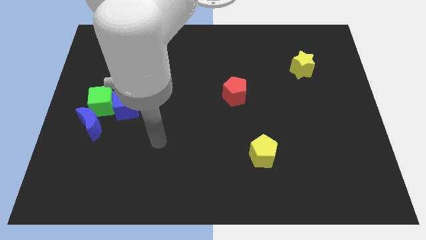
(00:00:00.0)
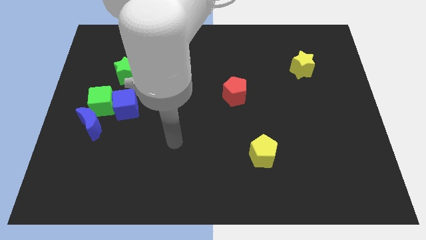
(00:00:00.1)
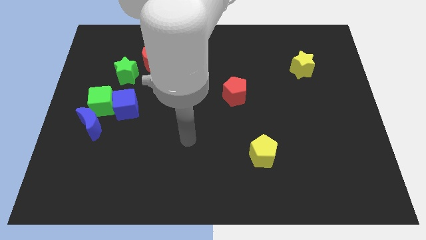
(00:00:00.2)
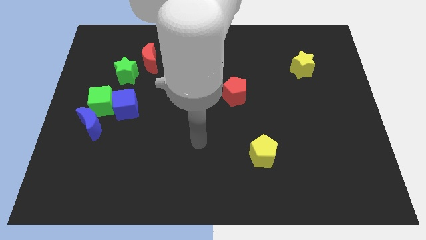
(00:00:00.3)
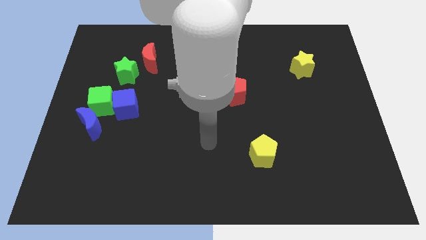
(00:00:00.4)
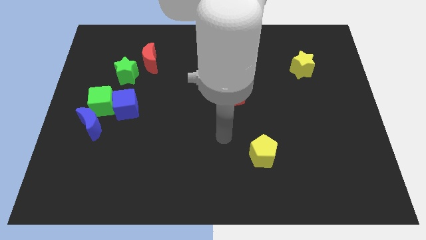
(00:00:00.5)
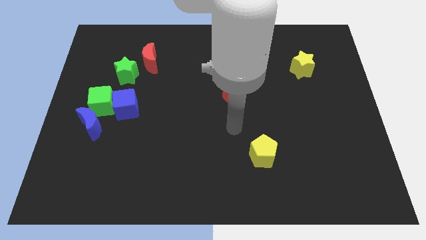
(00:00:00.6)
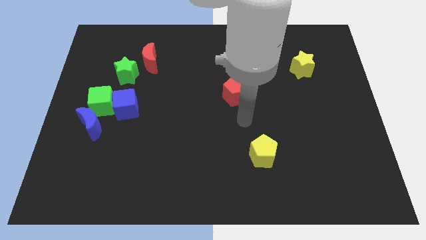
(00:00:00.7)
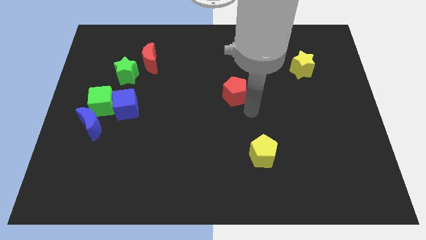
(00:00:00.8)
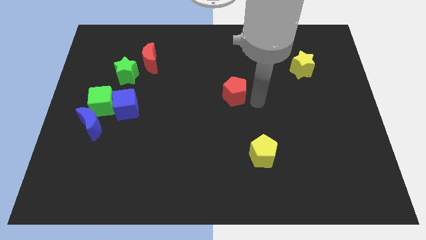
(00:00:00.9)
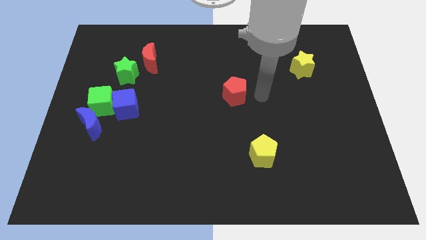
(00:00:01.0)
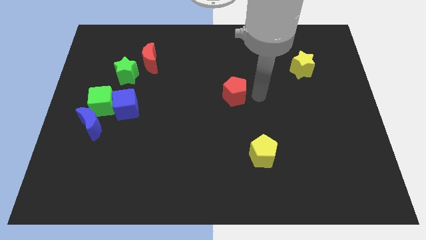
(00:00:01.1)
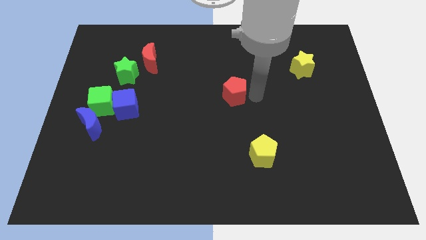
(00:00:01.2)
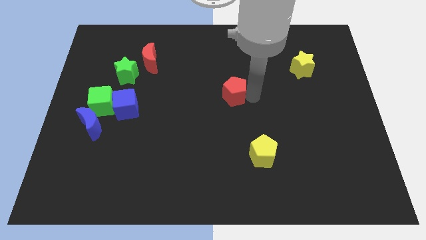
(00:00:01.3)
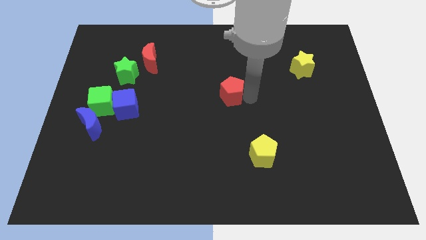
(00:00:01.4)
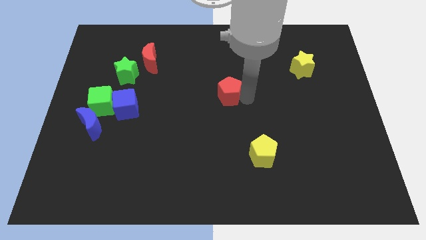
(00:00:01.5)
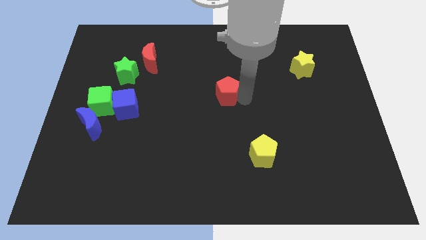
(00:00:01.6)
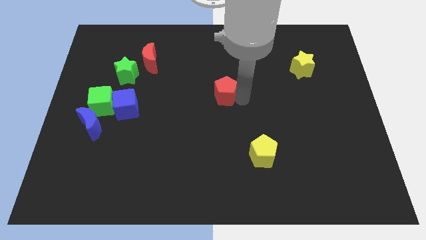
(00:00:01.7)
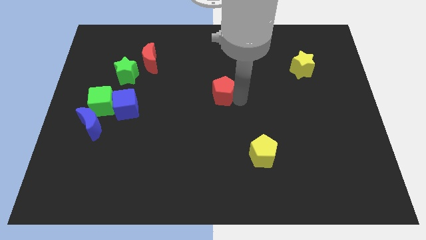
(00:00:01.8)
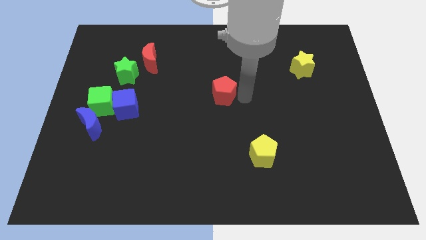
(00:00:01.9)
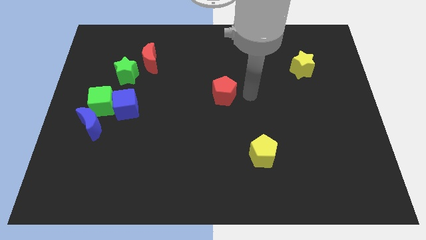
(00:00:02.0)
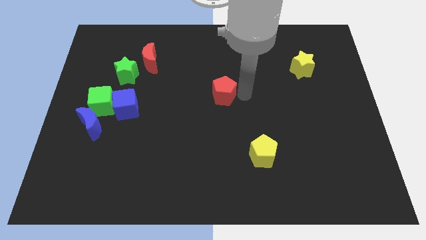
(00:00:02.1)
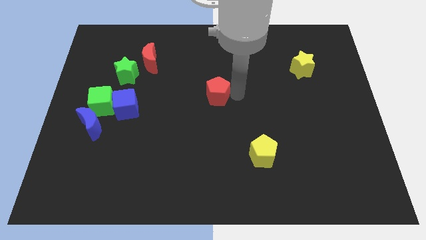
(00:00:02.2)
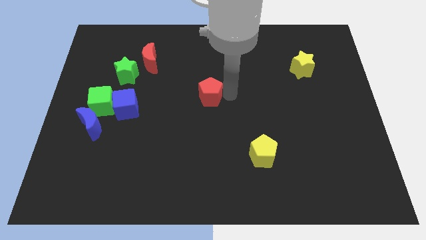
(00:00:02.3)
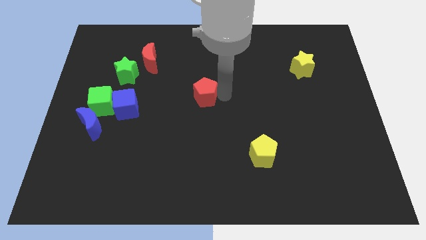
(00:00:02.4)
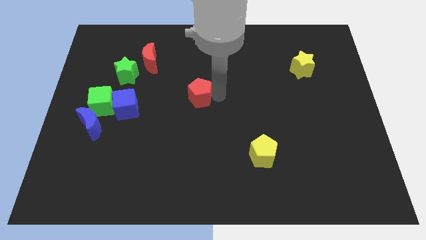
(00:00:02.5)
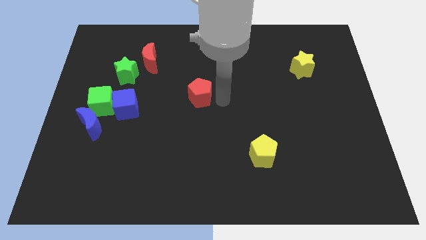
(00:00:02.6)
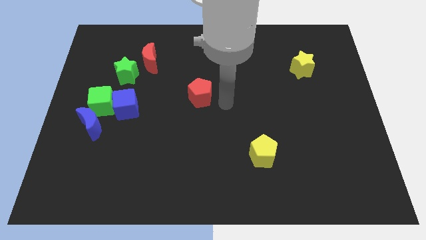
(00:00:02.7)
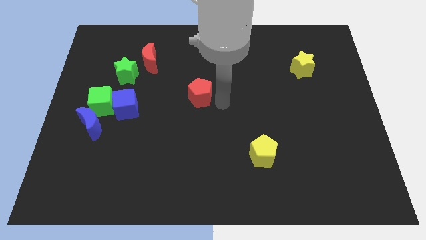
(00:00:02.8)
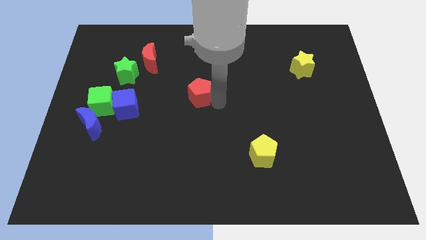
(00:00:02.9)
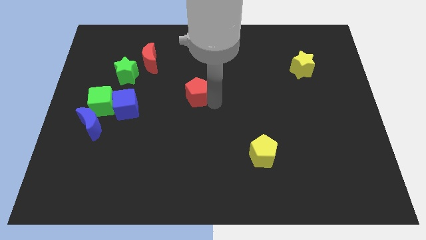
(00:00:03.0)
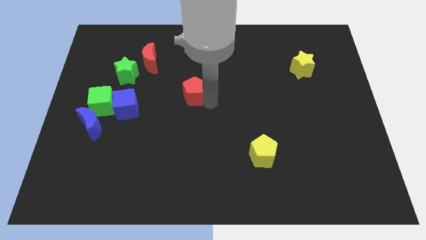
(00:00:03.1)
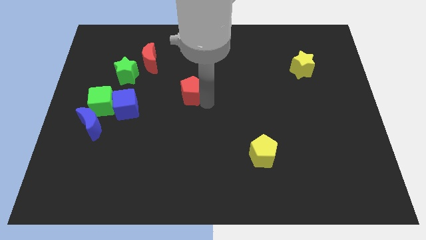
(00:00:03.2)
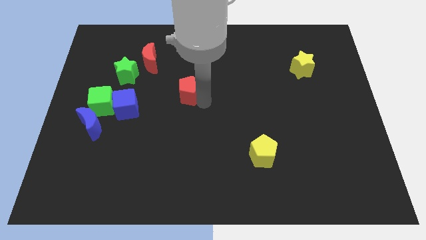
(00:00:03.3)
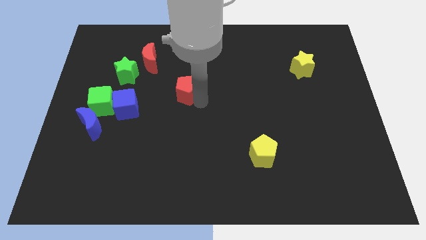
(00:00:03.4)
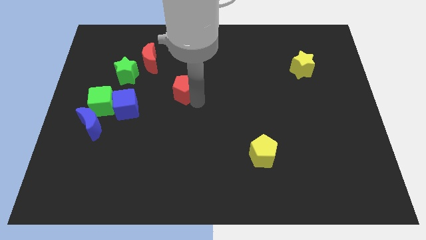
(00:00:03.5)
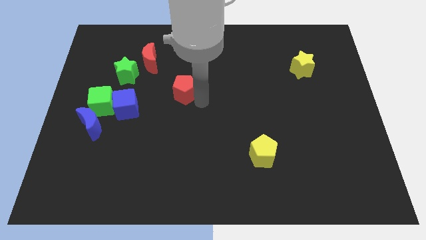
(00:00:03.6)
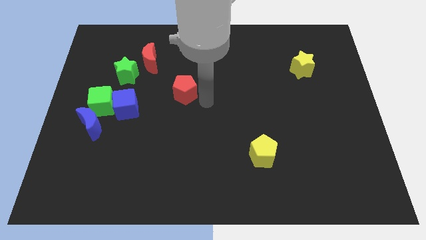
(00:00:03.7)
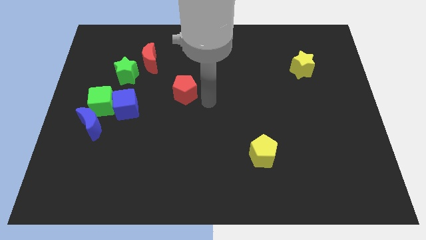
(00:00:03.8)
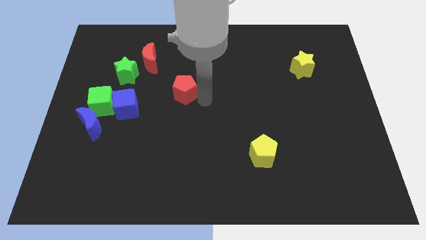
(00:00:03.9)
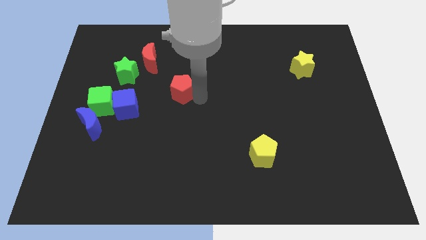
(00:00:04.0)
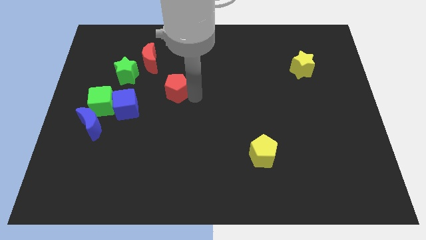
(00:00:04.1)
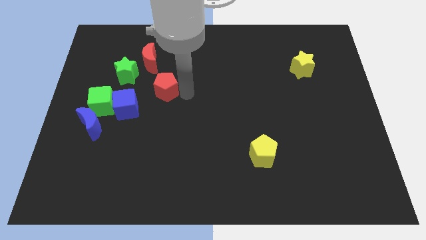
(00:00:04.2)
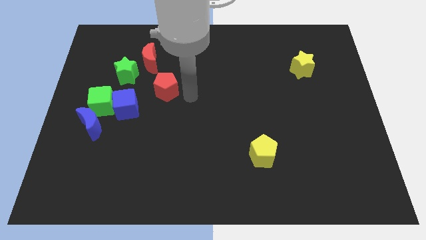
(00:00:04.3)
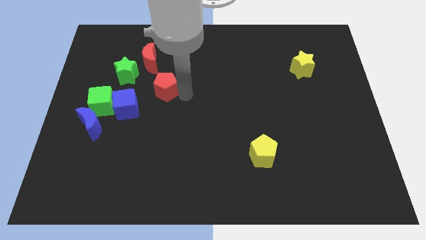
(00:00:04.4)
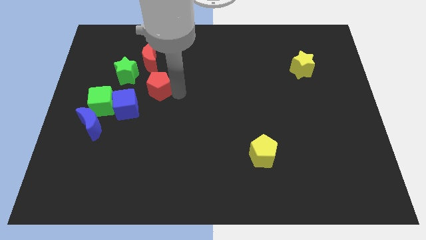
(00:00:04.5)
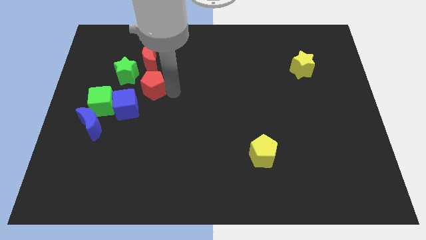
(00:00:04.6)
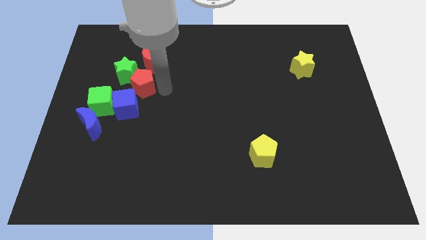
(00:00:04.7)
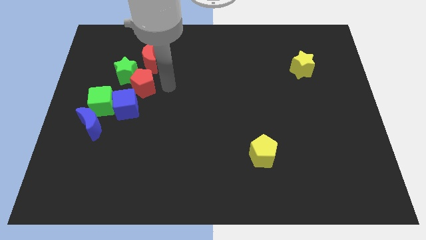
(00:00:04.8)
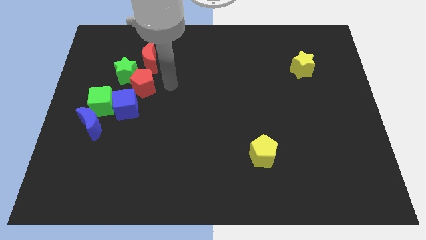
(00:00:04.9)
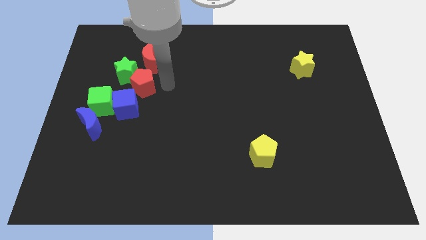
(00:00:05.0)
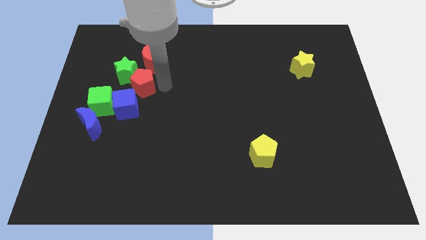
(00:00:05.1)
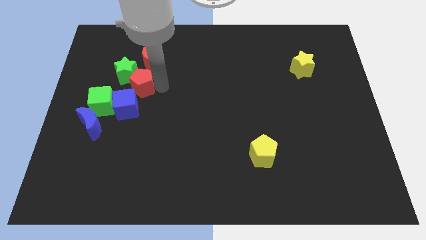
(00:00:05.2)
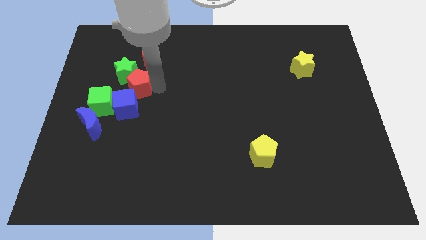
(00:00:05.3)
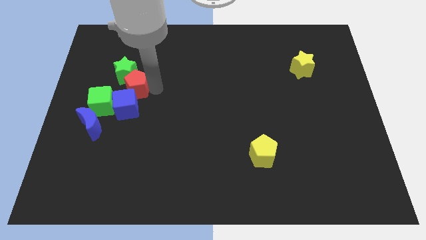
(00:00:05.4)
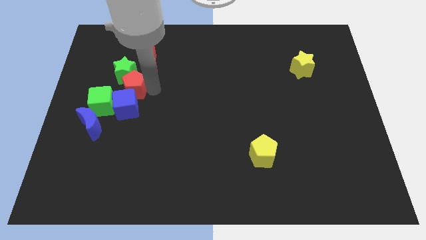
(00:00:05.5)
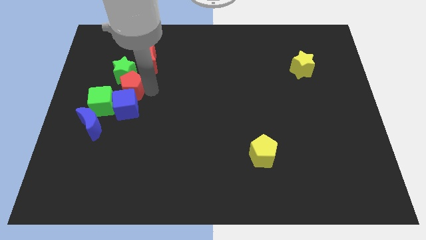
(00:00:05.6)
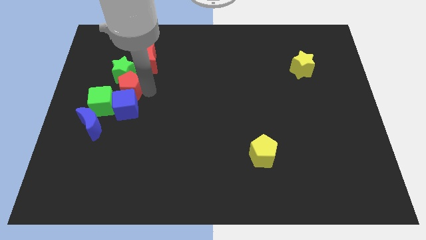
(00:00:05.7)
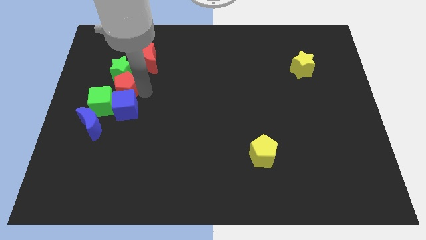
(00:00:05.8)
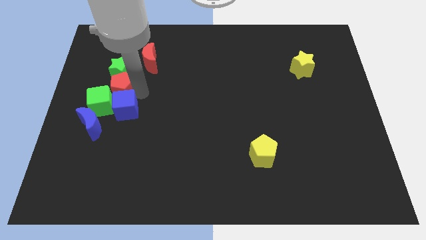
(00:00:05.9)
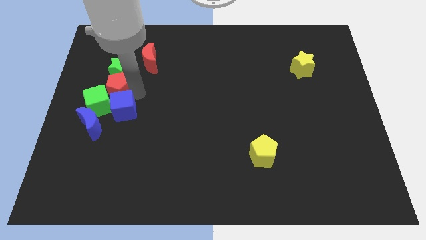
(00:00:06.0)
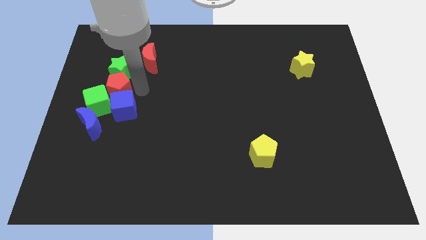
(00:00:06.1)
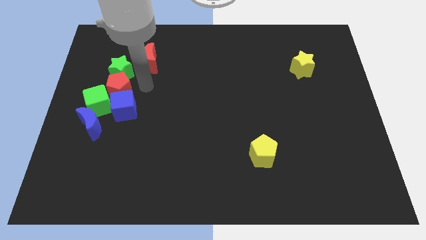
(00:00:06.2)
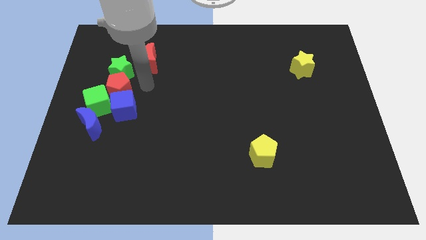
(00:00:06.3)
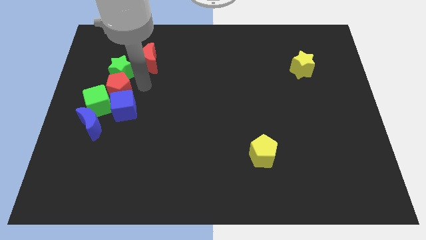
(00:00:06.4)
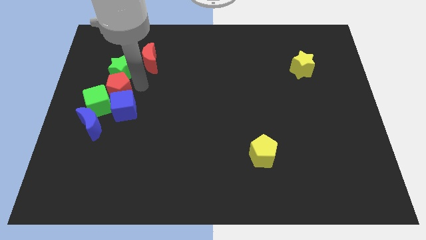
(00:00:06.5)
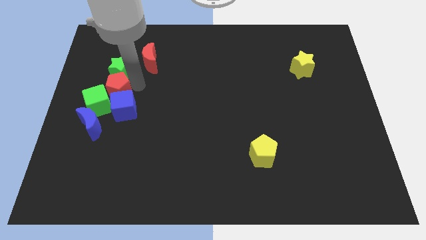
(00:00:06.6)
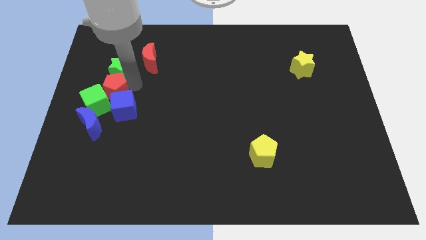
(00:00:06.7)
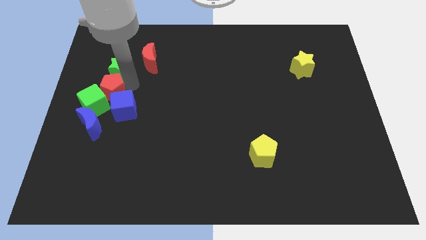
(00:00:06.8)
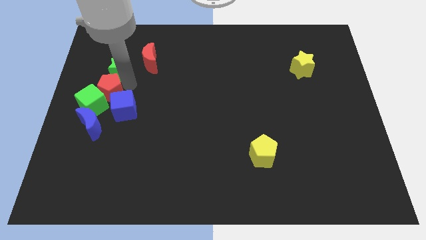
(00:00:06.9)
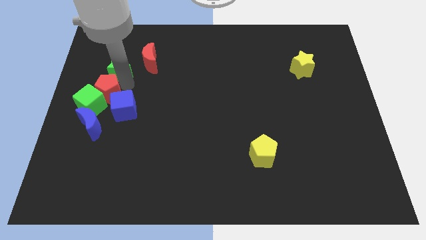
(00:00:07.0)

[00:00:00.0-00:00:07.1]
slide the red pentagon to the left side of the board
